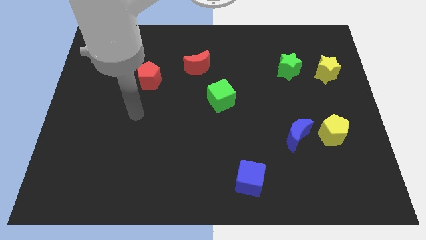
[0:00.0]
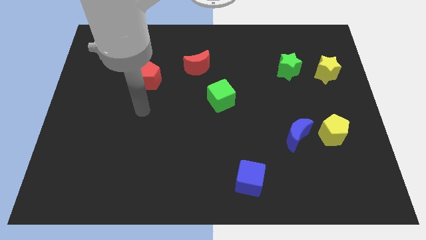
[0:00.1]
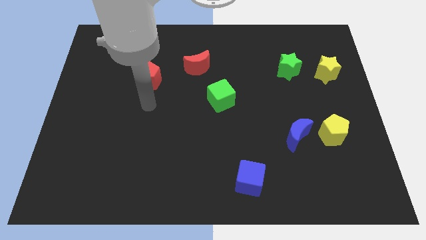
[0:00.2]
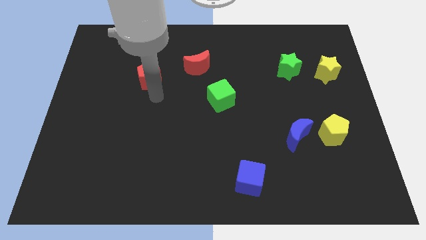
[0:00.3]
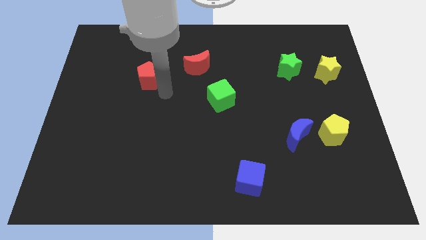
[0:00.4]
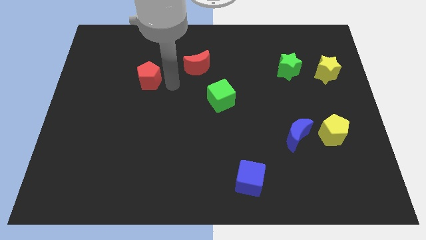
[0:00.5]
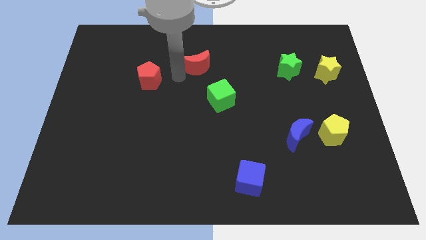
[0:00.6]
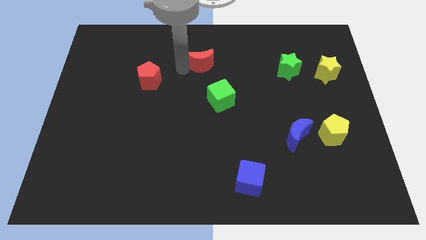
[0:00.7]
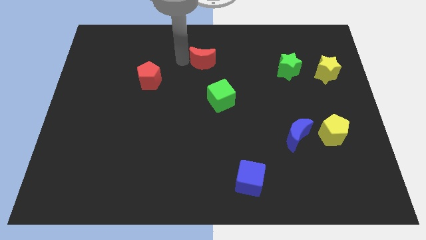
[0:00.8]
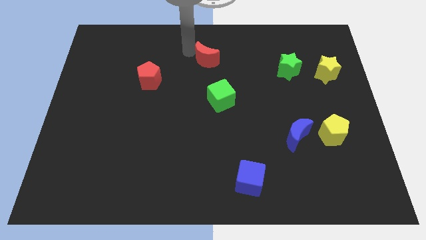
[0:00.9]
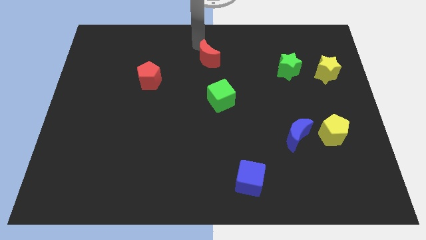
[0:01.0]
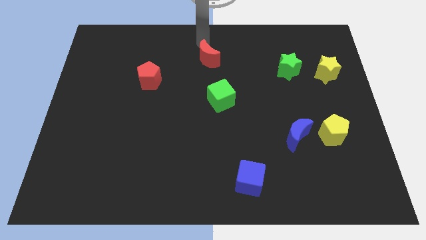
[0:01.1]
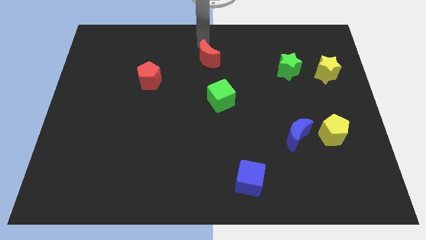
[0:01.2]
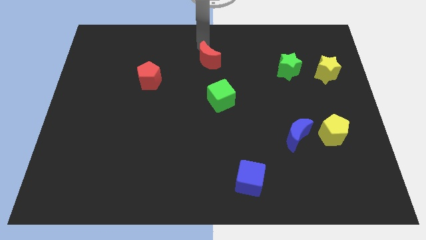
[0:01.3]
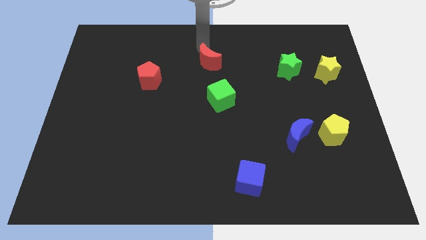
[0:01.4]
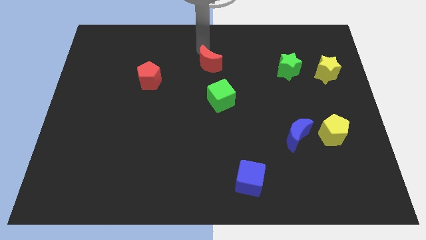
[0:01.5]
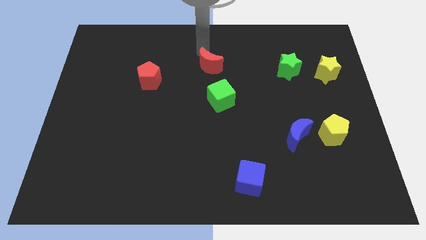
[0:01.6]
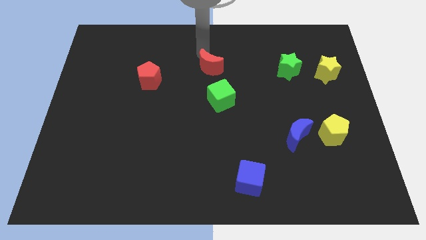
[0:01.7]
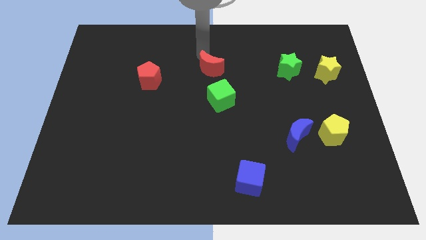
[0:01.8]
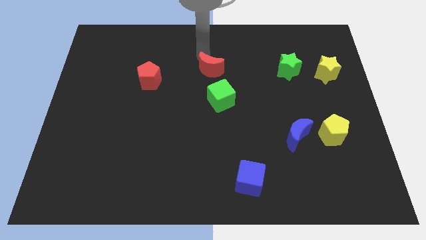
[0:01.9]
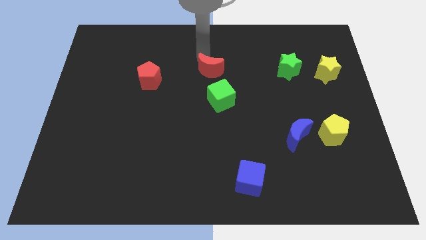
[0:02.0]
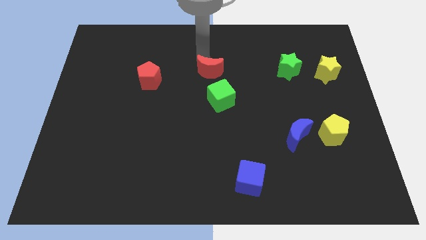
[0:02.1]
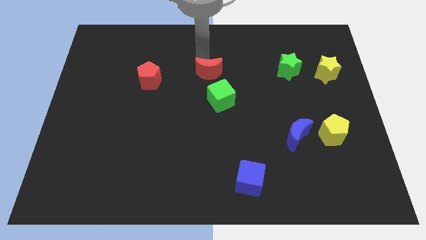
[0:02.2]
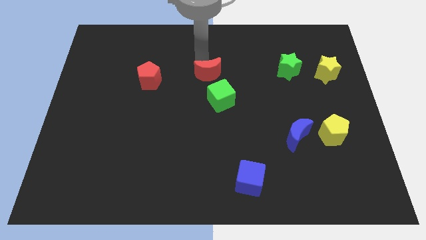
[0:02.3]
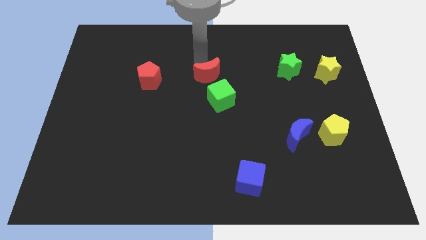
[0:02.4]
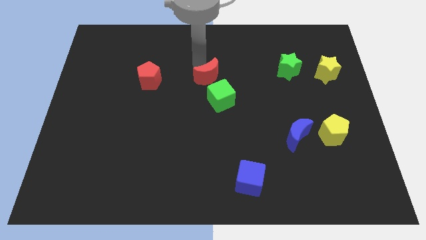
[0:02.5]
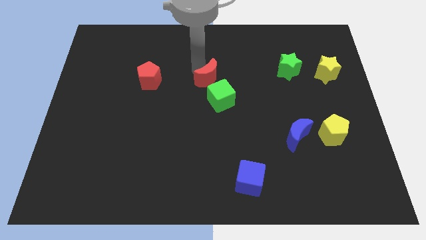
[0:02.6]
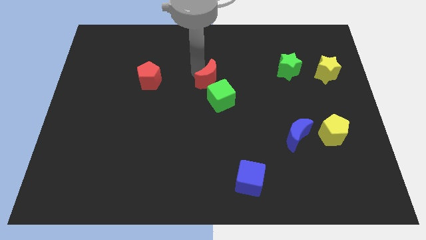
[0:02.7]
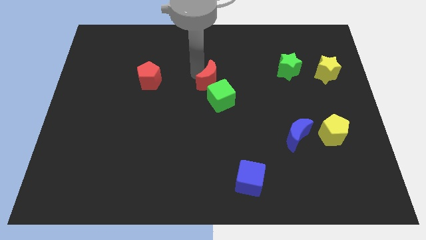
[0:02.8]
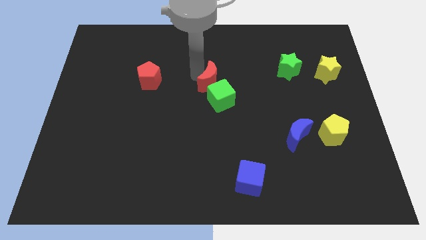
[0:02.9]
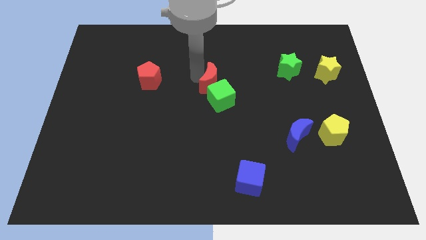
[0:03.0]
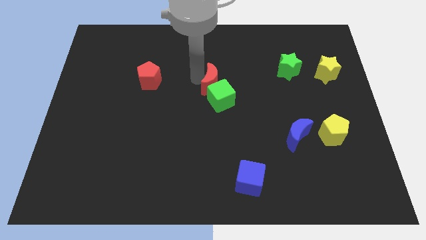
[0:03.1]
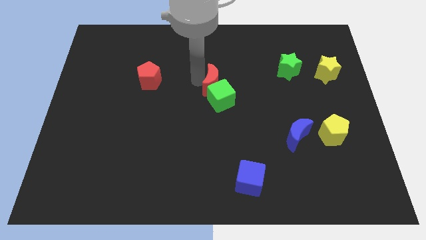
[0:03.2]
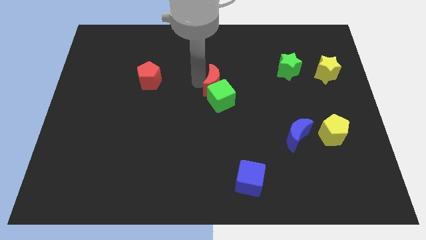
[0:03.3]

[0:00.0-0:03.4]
slightly move the red moon downwards and then to the right

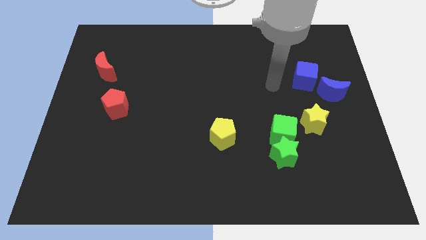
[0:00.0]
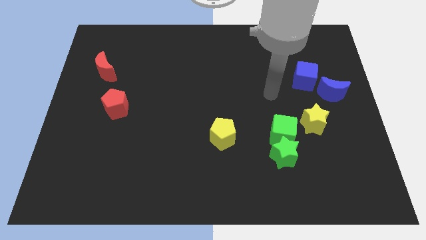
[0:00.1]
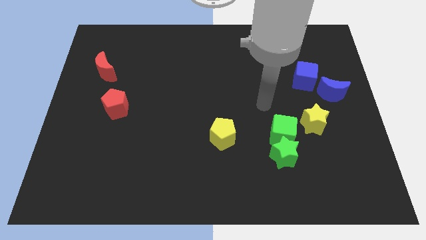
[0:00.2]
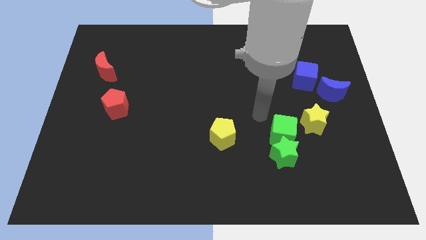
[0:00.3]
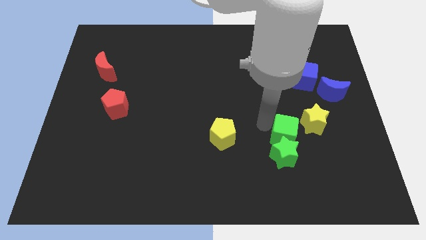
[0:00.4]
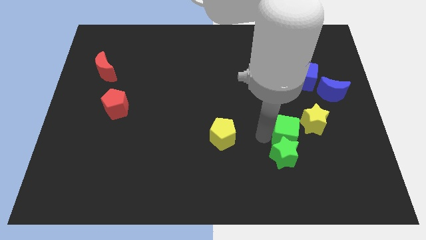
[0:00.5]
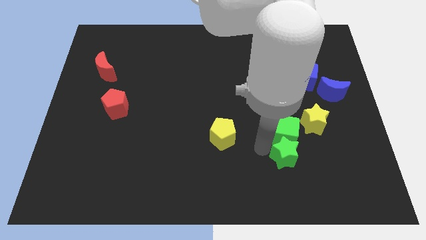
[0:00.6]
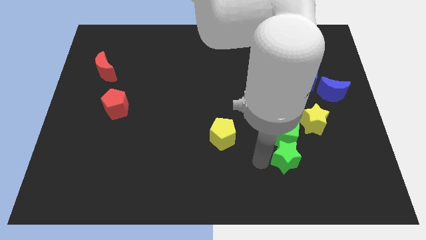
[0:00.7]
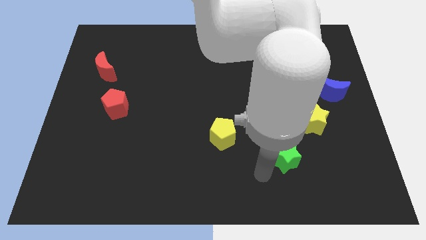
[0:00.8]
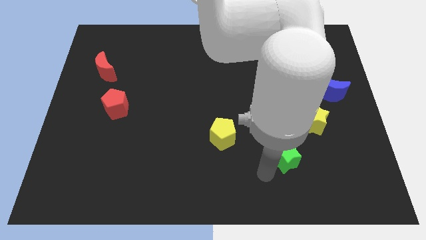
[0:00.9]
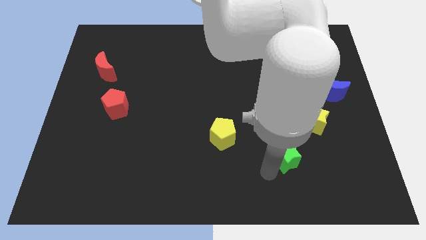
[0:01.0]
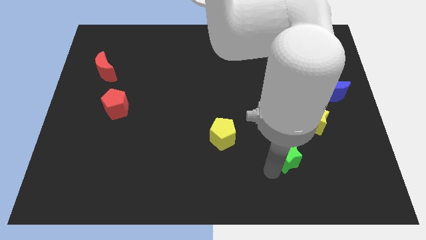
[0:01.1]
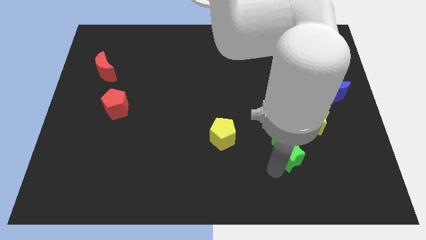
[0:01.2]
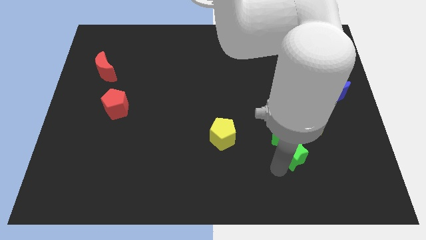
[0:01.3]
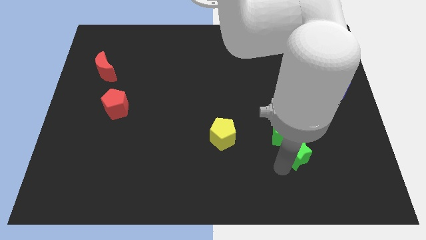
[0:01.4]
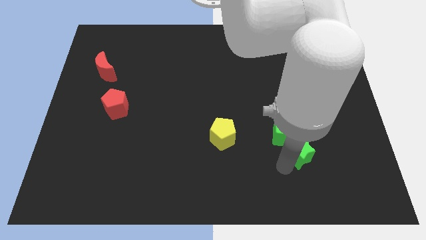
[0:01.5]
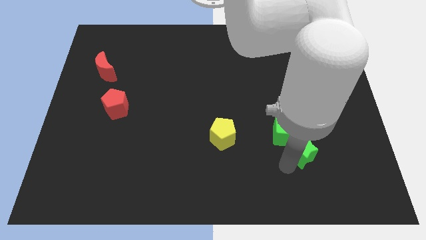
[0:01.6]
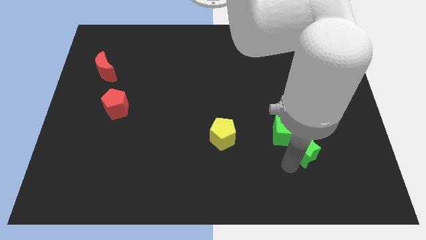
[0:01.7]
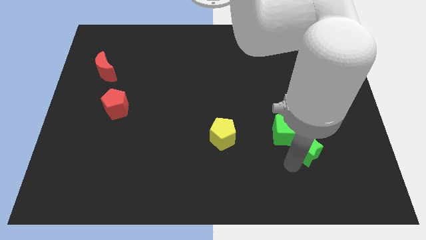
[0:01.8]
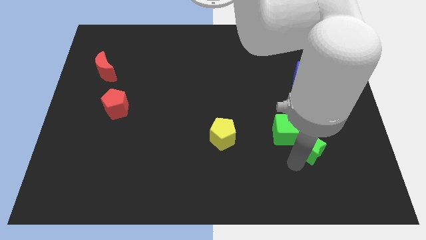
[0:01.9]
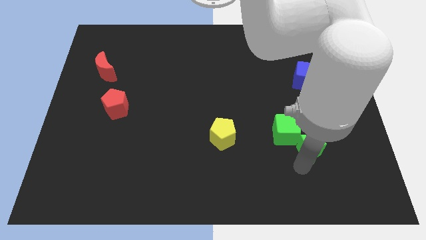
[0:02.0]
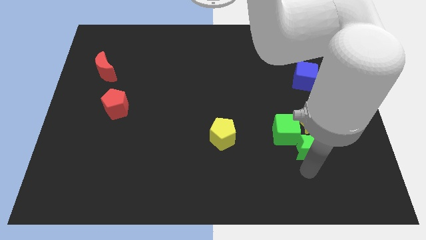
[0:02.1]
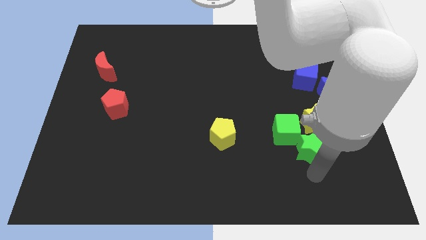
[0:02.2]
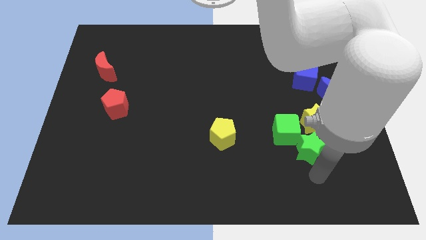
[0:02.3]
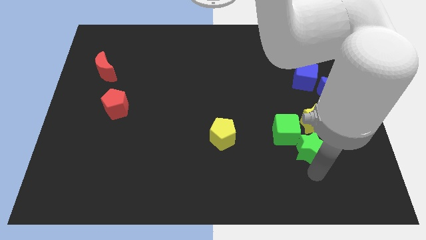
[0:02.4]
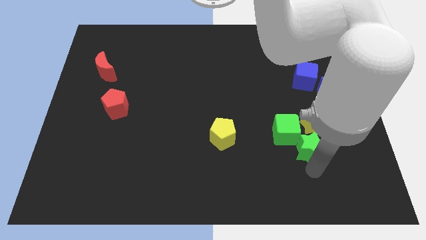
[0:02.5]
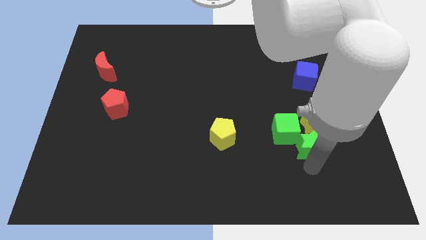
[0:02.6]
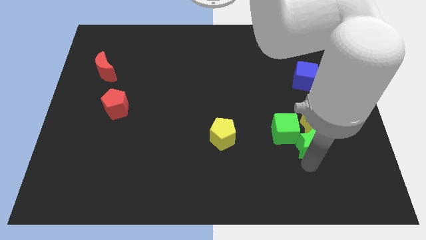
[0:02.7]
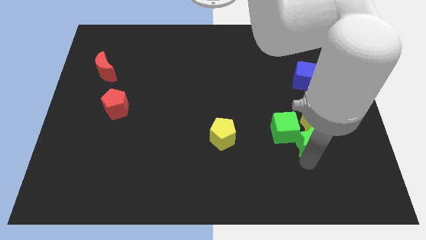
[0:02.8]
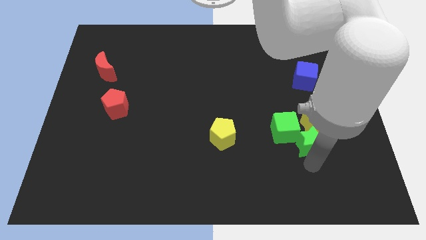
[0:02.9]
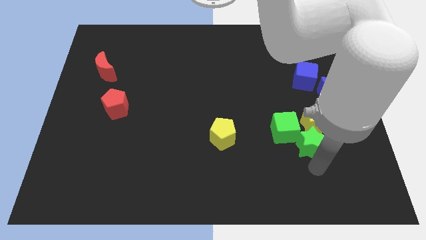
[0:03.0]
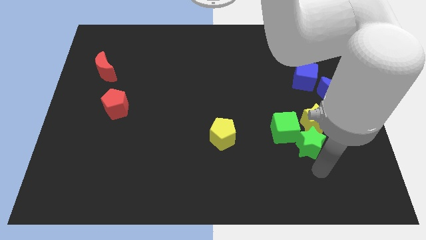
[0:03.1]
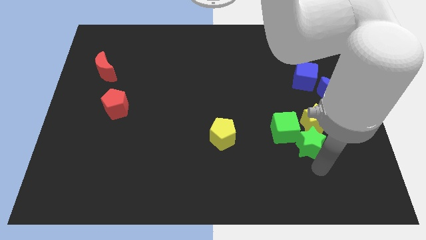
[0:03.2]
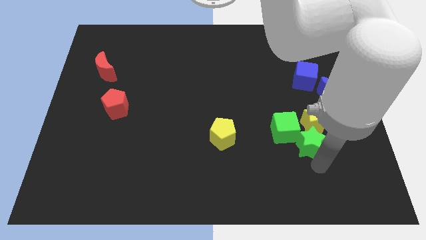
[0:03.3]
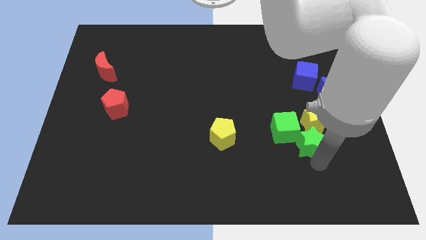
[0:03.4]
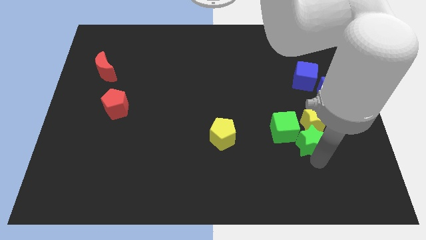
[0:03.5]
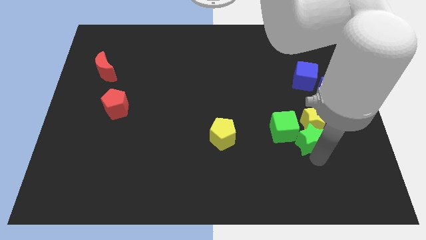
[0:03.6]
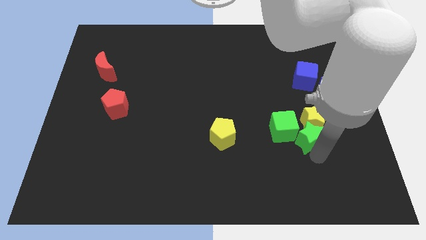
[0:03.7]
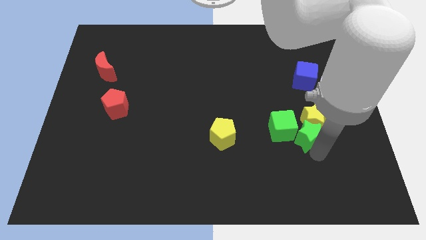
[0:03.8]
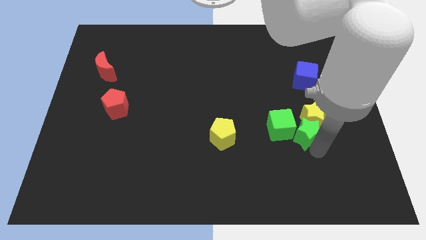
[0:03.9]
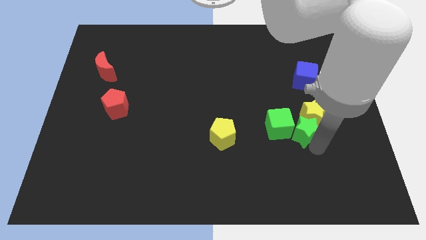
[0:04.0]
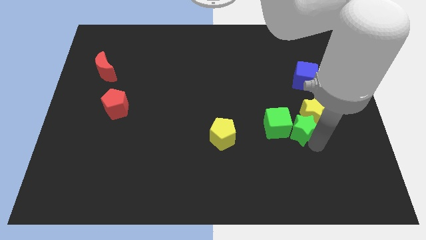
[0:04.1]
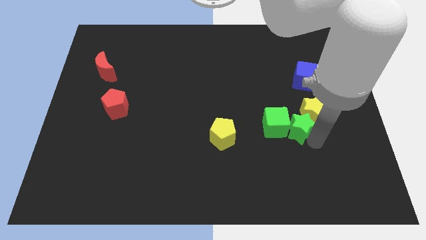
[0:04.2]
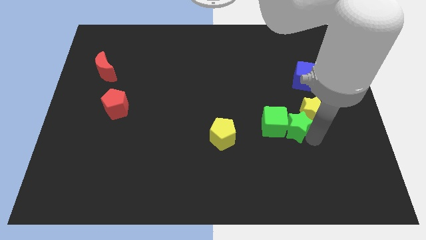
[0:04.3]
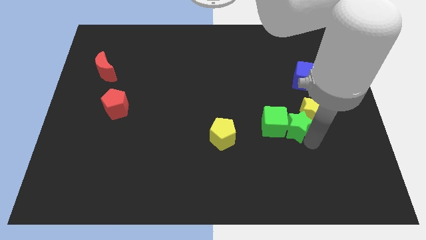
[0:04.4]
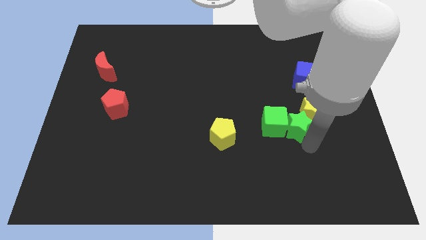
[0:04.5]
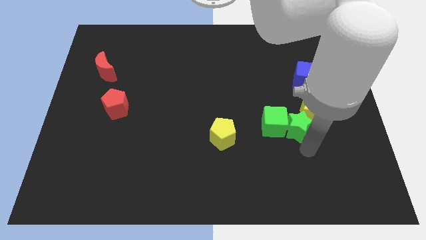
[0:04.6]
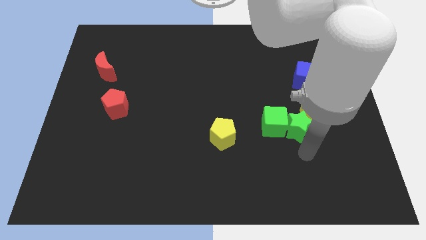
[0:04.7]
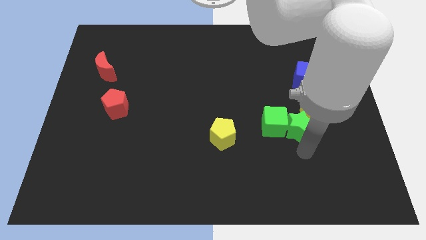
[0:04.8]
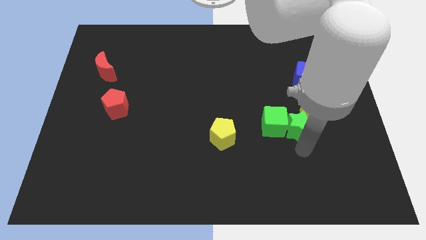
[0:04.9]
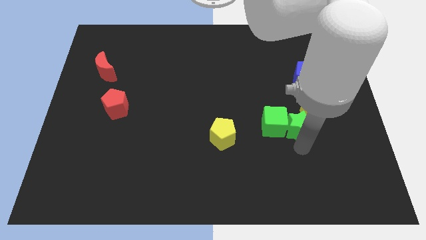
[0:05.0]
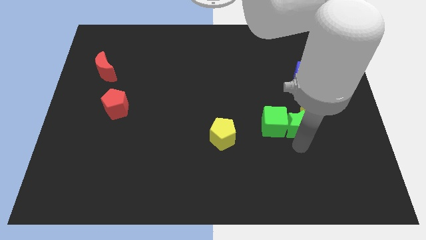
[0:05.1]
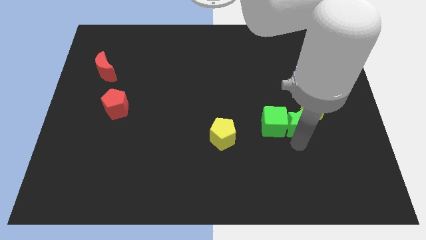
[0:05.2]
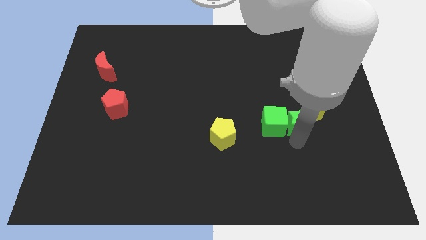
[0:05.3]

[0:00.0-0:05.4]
push the green star upwards somewhat
